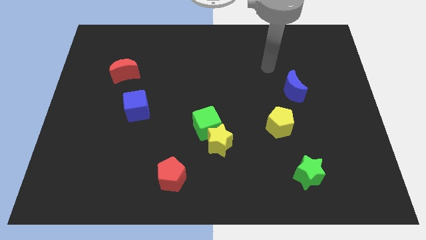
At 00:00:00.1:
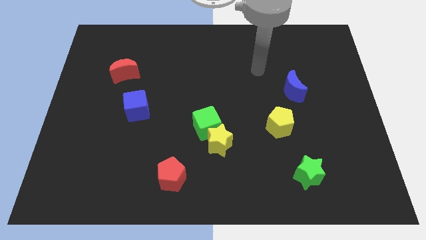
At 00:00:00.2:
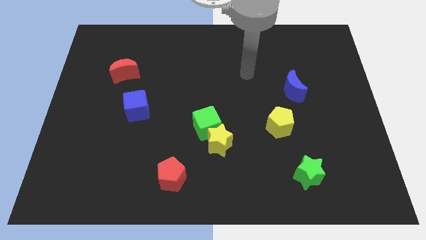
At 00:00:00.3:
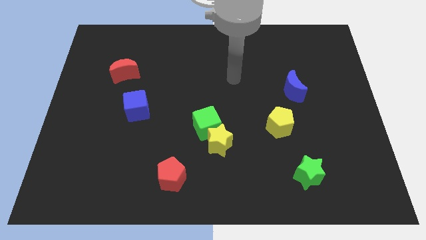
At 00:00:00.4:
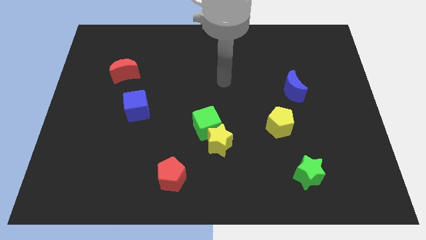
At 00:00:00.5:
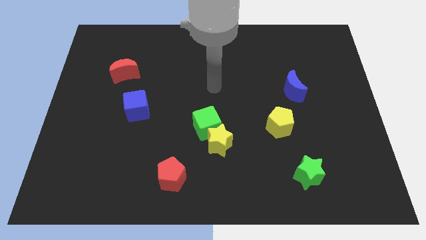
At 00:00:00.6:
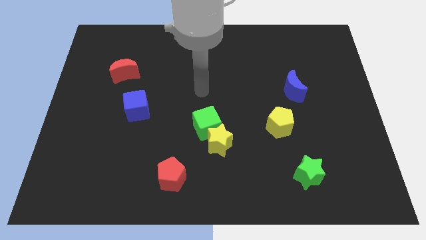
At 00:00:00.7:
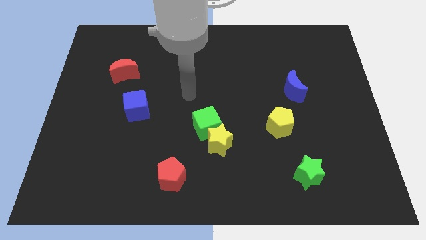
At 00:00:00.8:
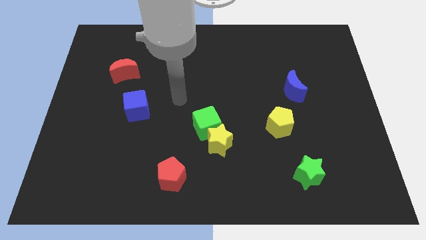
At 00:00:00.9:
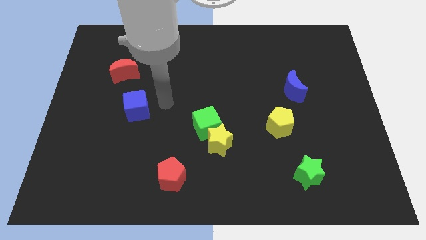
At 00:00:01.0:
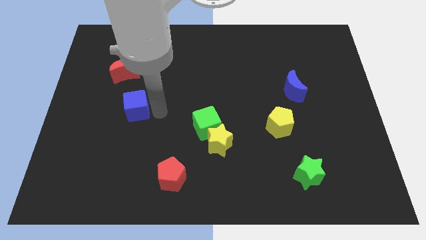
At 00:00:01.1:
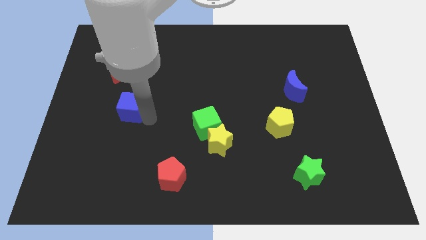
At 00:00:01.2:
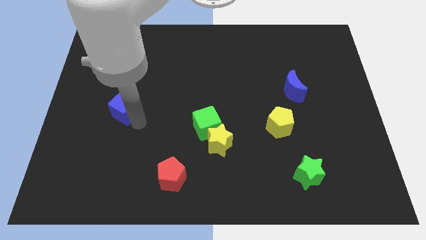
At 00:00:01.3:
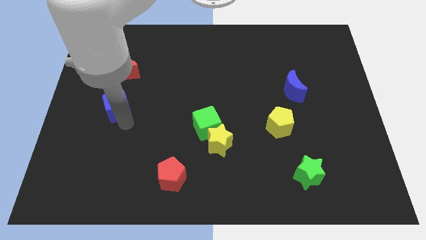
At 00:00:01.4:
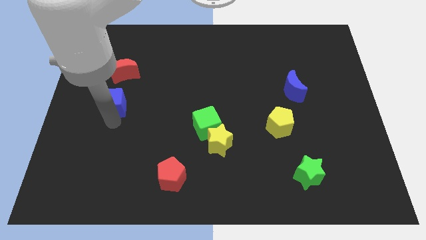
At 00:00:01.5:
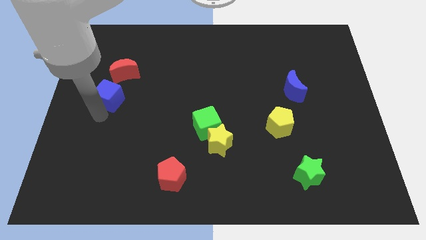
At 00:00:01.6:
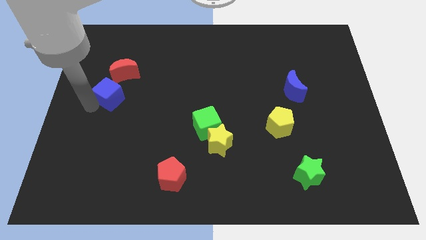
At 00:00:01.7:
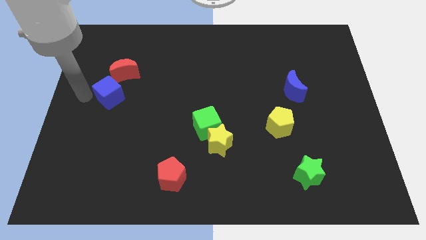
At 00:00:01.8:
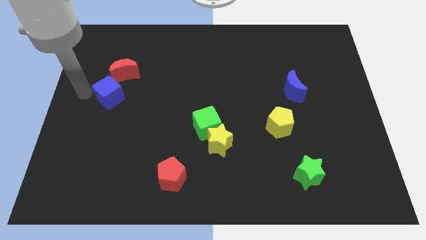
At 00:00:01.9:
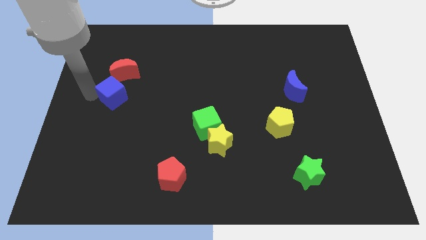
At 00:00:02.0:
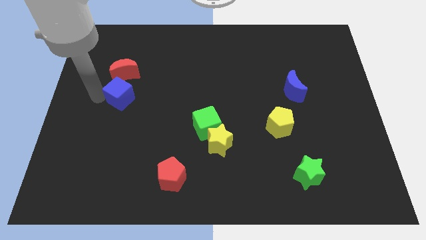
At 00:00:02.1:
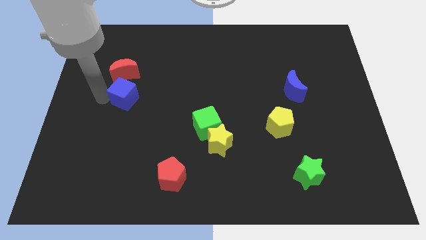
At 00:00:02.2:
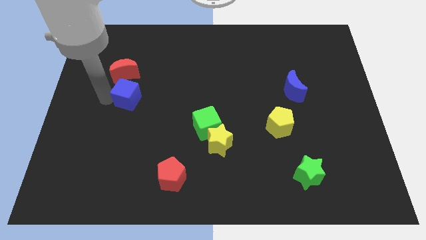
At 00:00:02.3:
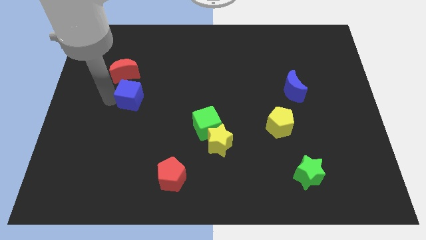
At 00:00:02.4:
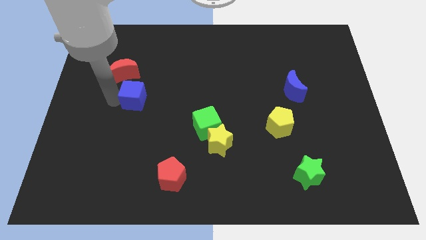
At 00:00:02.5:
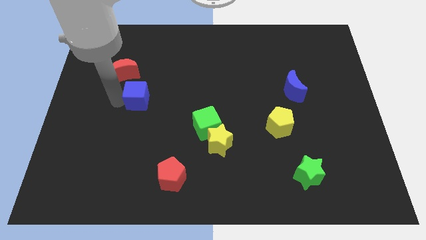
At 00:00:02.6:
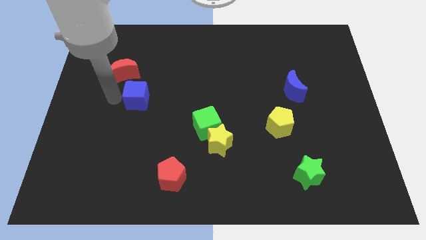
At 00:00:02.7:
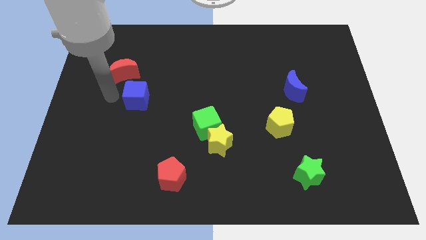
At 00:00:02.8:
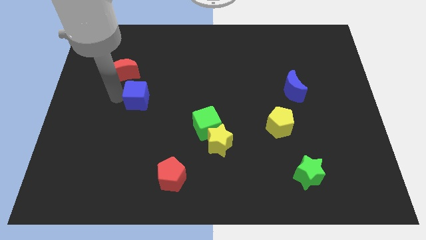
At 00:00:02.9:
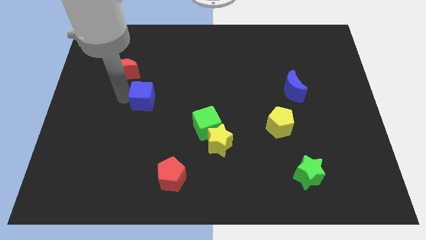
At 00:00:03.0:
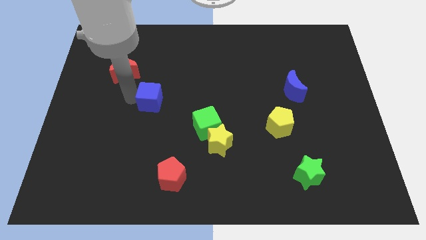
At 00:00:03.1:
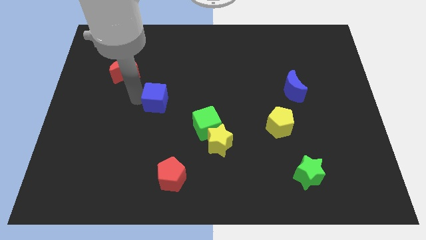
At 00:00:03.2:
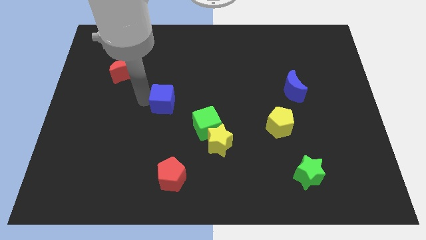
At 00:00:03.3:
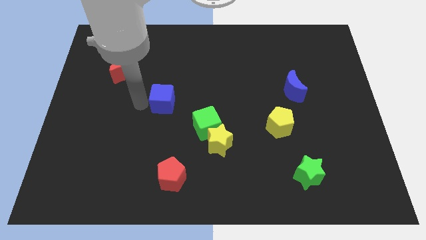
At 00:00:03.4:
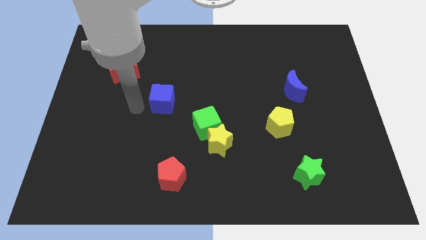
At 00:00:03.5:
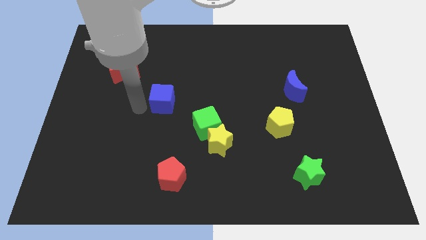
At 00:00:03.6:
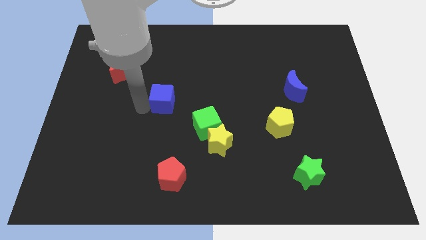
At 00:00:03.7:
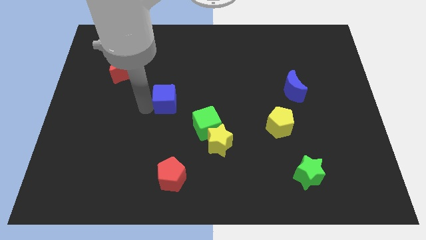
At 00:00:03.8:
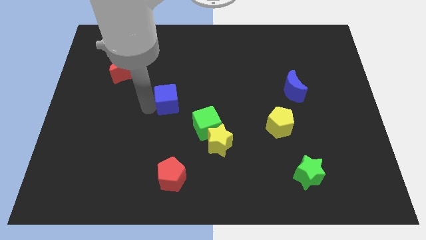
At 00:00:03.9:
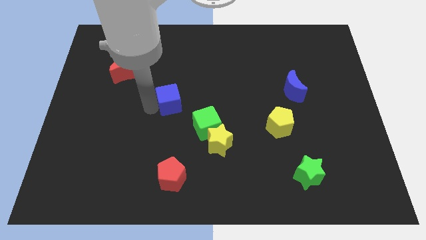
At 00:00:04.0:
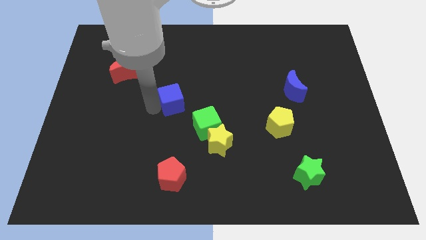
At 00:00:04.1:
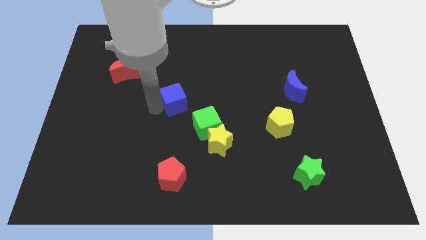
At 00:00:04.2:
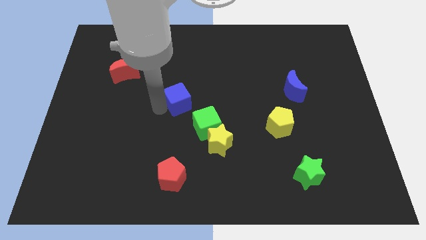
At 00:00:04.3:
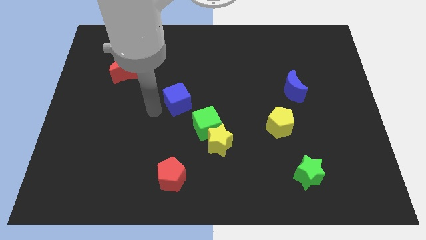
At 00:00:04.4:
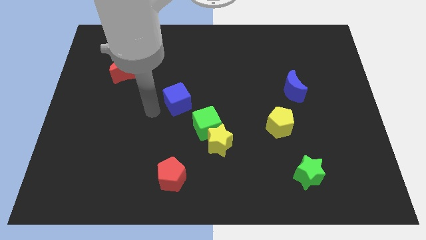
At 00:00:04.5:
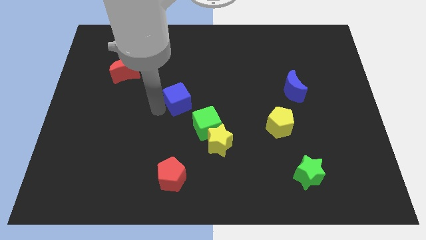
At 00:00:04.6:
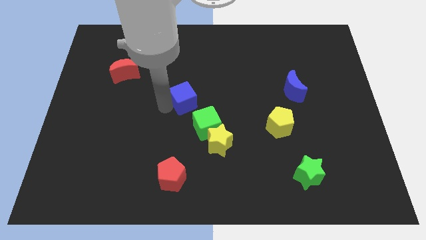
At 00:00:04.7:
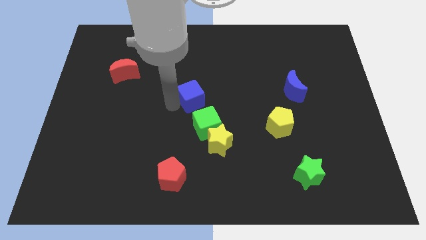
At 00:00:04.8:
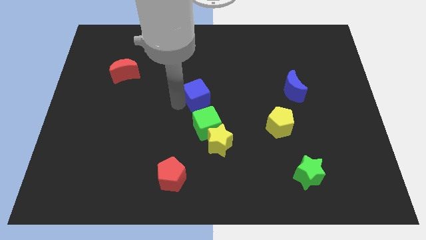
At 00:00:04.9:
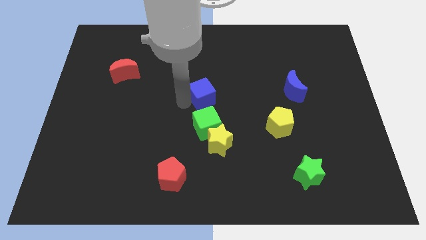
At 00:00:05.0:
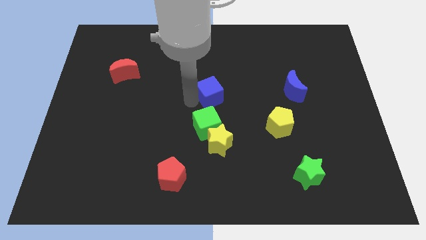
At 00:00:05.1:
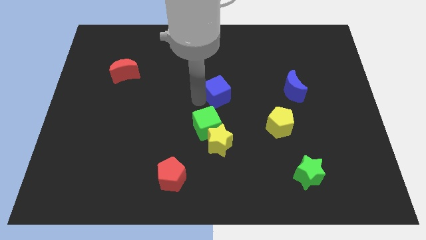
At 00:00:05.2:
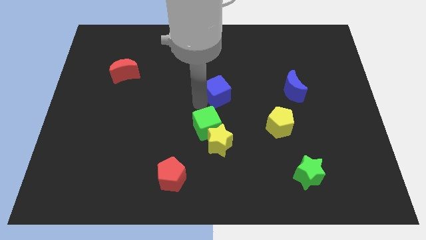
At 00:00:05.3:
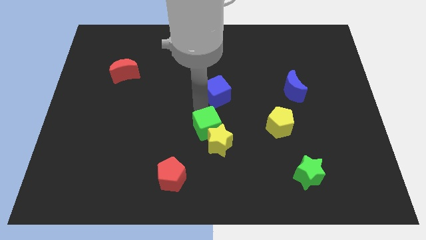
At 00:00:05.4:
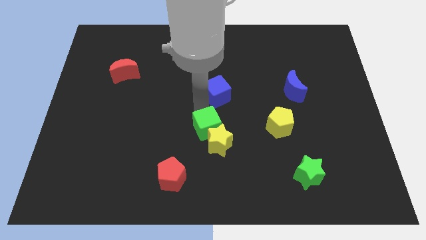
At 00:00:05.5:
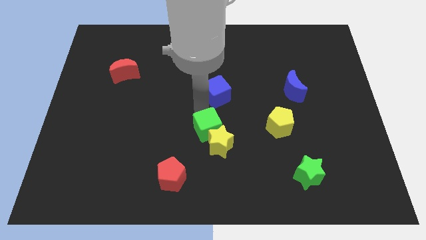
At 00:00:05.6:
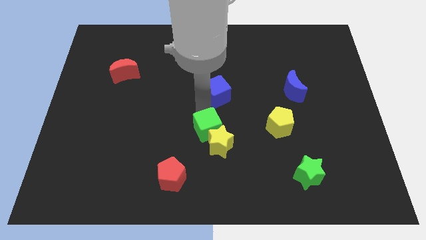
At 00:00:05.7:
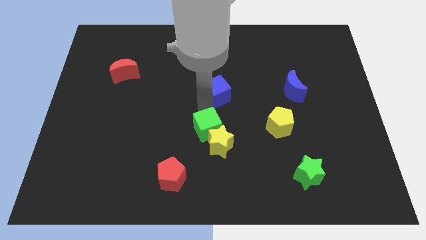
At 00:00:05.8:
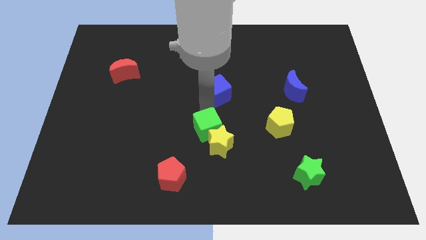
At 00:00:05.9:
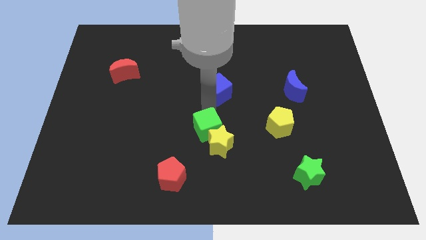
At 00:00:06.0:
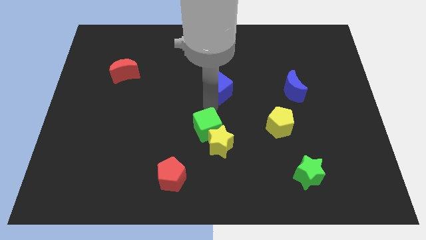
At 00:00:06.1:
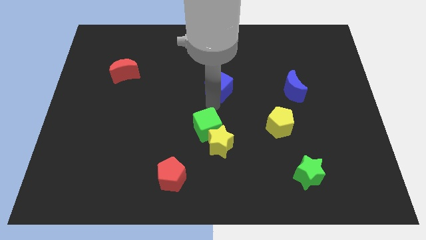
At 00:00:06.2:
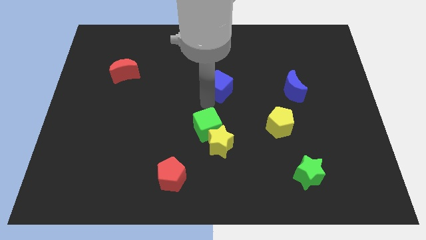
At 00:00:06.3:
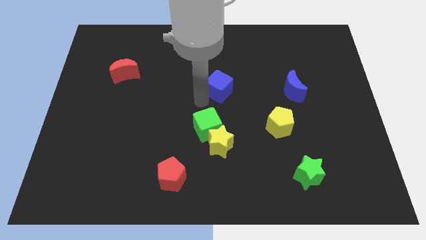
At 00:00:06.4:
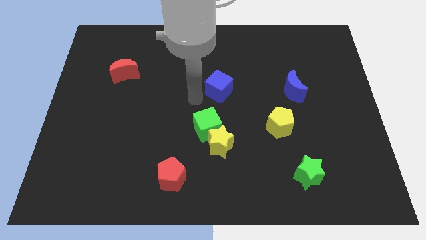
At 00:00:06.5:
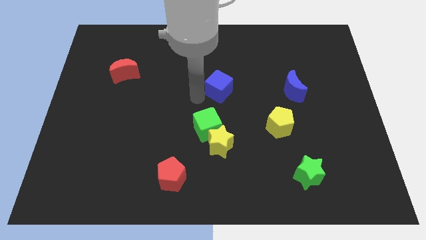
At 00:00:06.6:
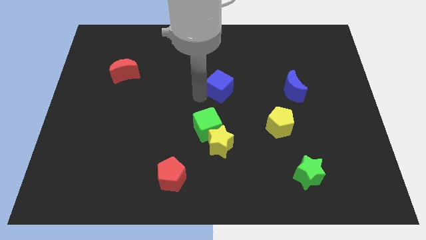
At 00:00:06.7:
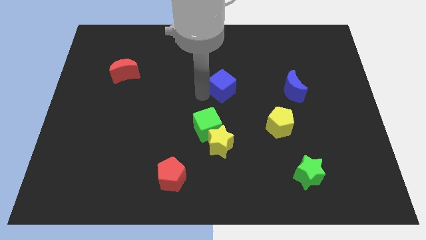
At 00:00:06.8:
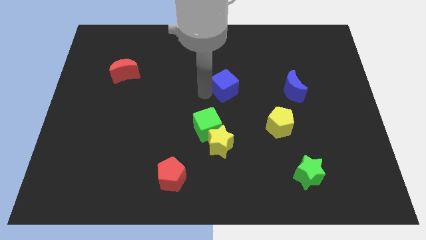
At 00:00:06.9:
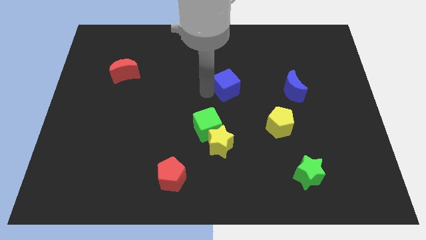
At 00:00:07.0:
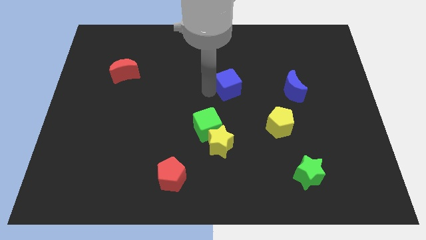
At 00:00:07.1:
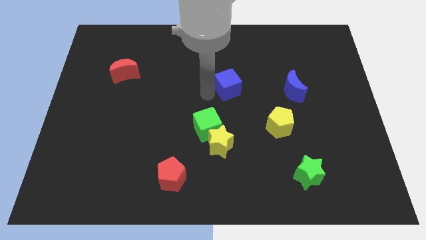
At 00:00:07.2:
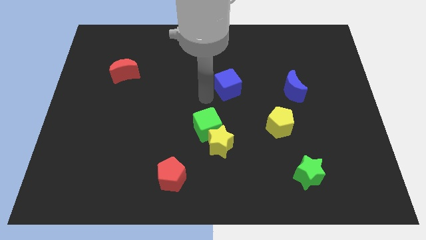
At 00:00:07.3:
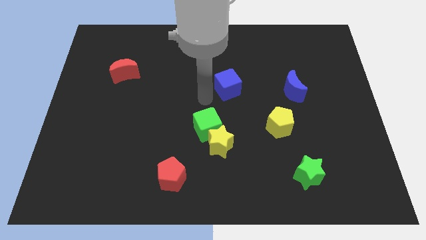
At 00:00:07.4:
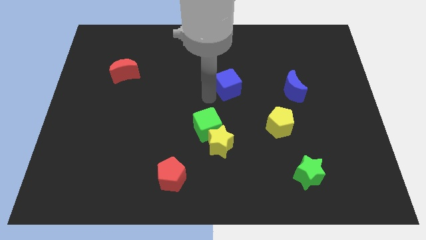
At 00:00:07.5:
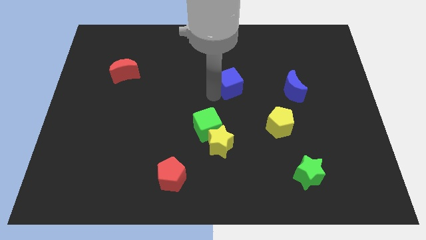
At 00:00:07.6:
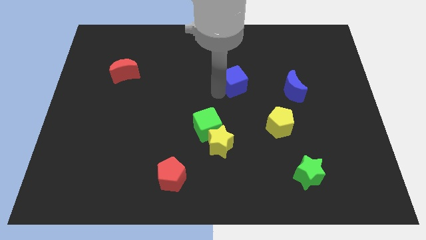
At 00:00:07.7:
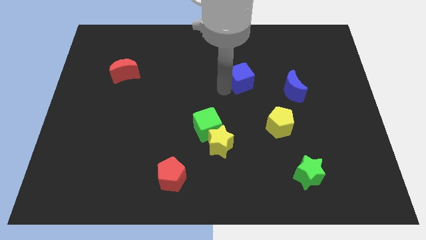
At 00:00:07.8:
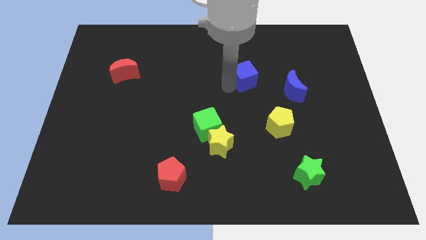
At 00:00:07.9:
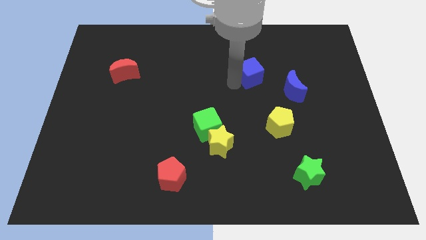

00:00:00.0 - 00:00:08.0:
put the blue cube to the top left of the blue moon
